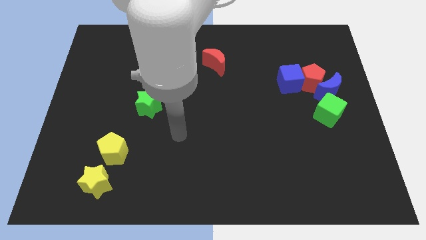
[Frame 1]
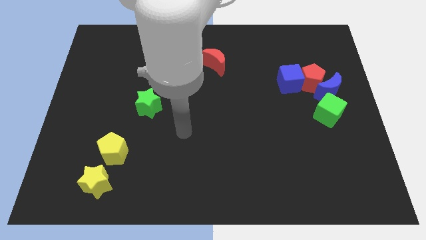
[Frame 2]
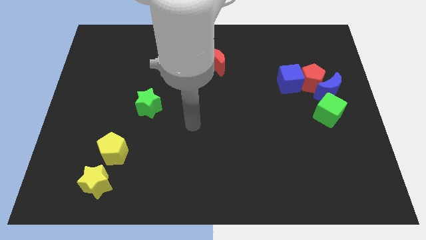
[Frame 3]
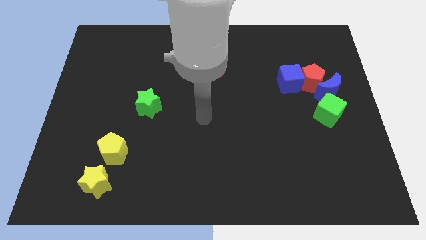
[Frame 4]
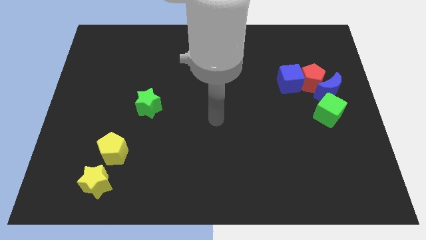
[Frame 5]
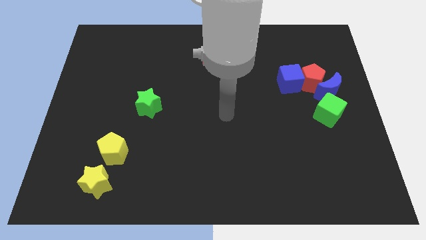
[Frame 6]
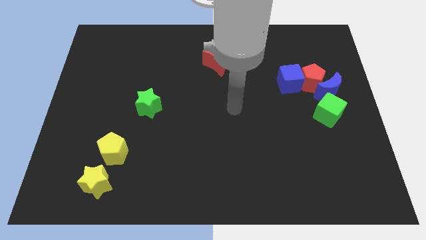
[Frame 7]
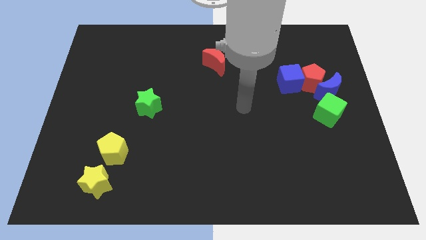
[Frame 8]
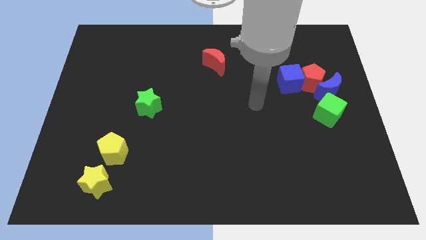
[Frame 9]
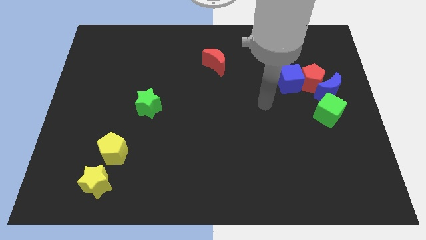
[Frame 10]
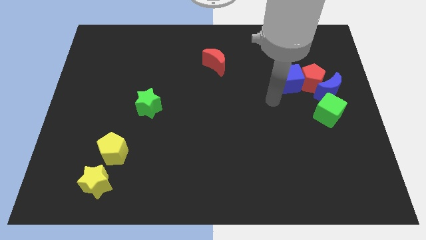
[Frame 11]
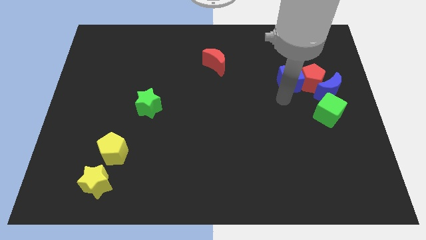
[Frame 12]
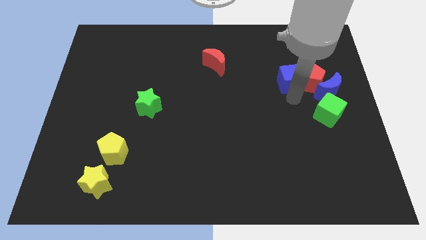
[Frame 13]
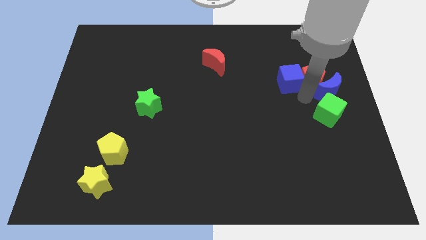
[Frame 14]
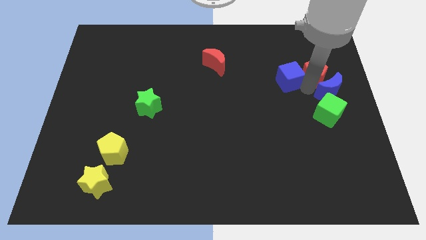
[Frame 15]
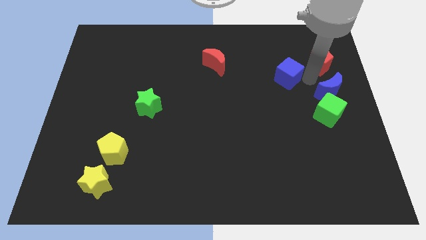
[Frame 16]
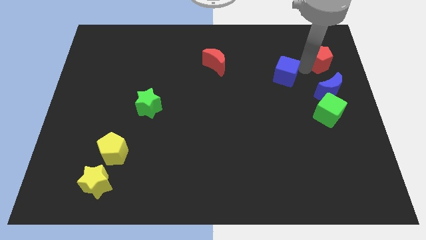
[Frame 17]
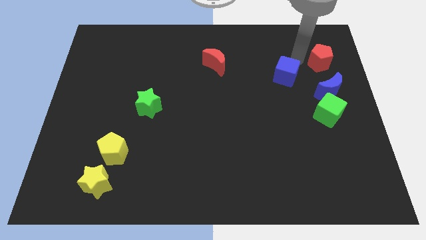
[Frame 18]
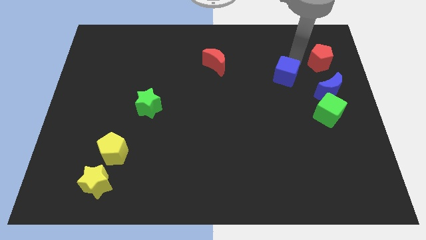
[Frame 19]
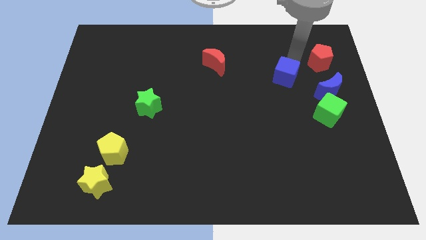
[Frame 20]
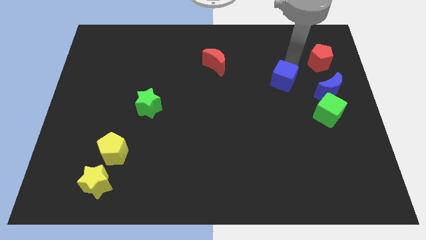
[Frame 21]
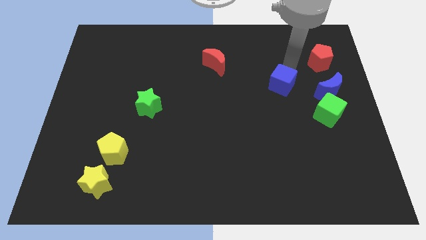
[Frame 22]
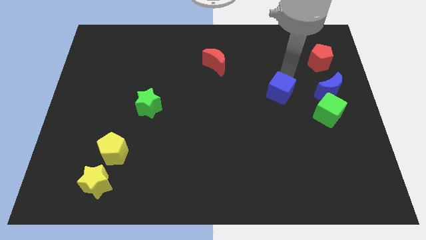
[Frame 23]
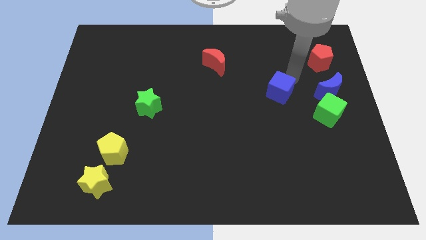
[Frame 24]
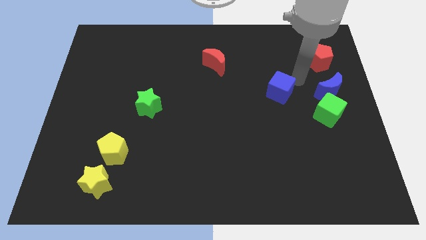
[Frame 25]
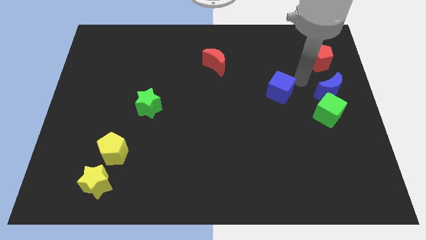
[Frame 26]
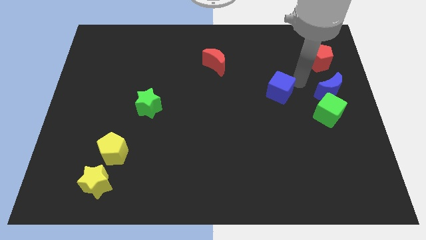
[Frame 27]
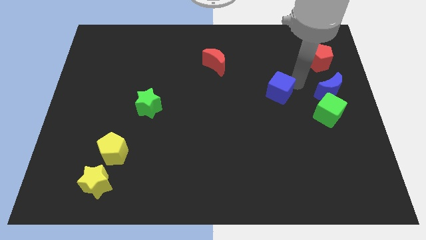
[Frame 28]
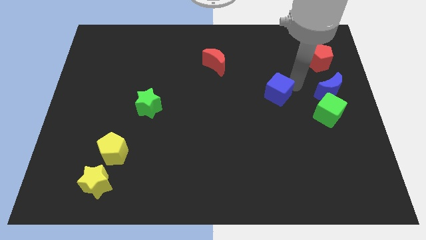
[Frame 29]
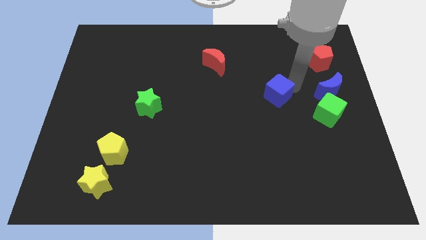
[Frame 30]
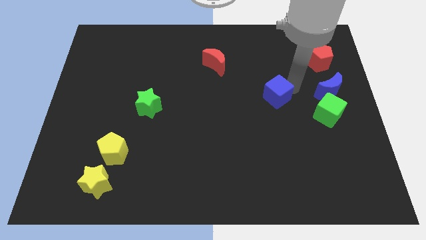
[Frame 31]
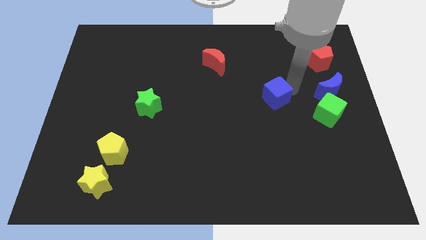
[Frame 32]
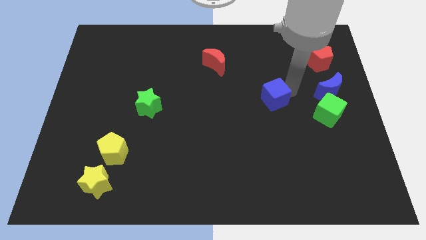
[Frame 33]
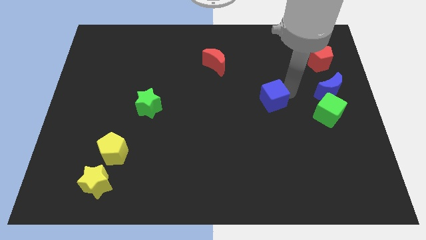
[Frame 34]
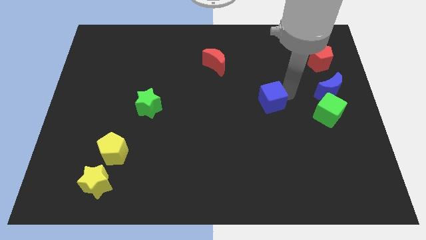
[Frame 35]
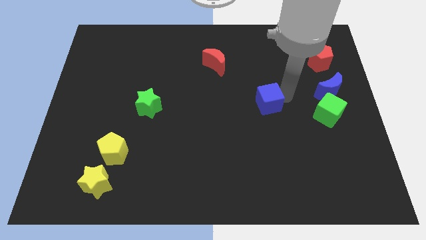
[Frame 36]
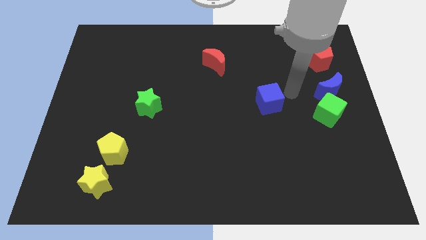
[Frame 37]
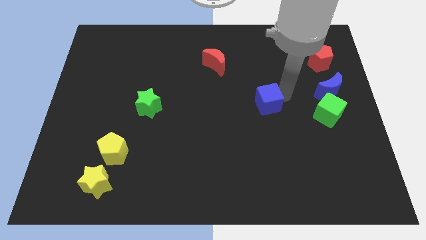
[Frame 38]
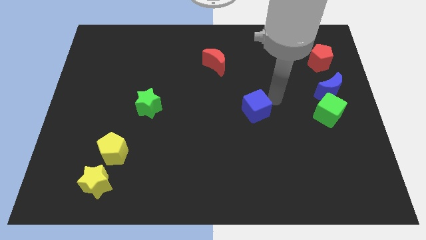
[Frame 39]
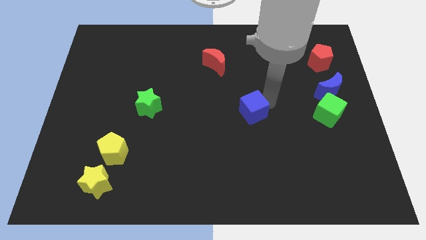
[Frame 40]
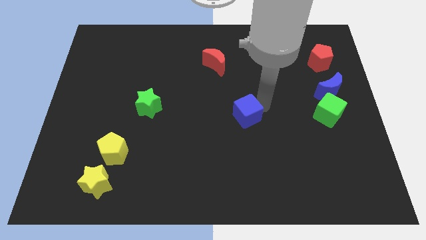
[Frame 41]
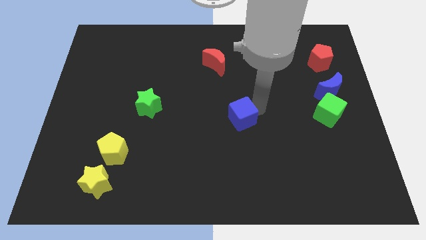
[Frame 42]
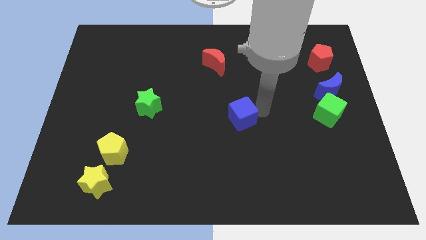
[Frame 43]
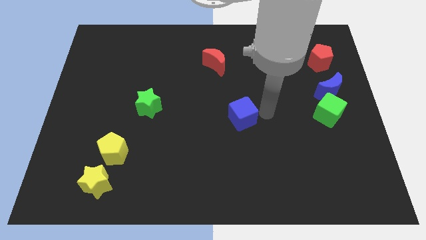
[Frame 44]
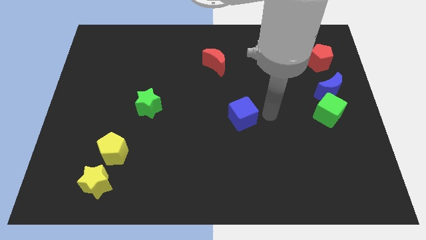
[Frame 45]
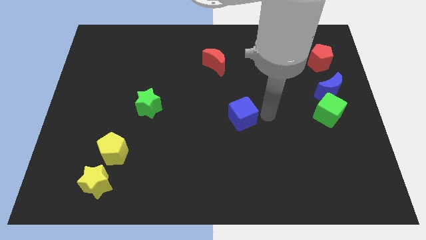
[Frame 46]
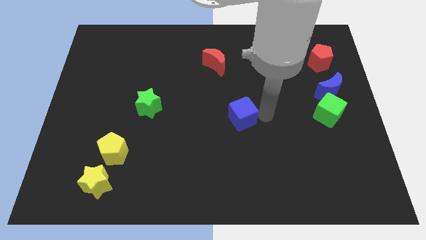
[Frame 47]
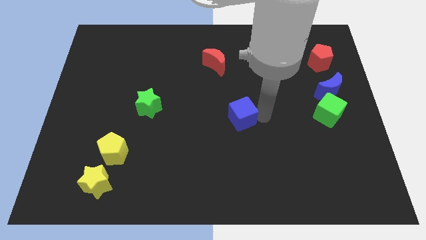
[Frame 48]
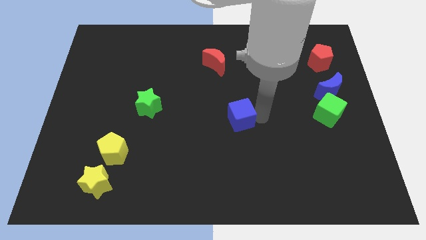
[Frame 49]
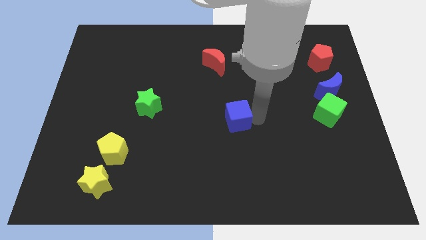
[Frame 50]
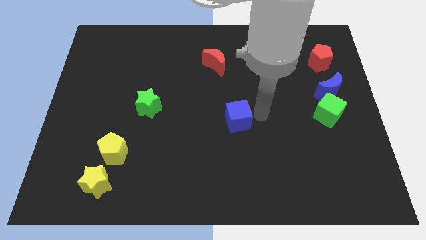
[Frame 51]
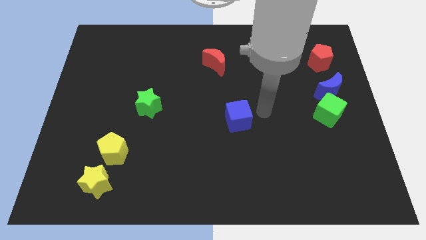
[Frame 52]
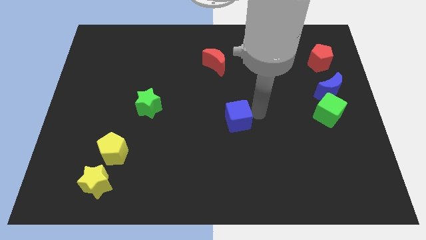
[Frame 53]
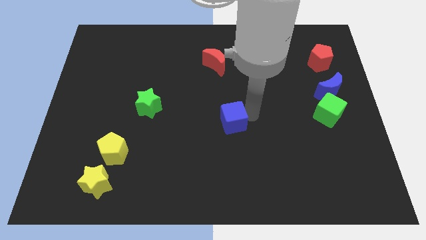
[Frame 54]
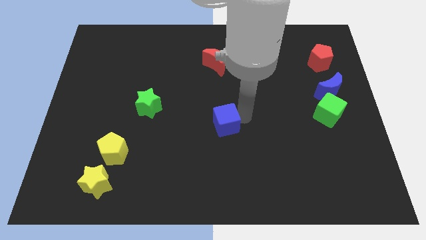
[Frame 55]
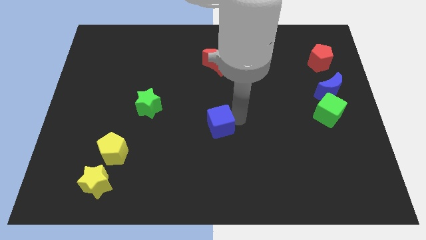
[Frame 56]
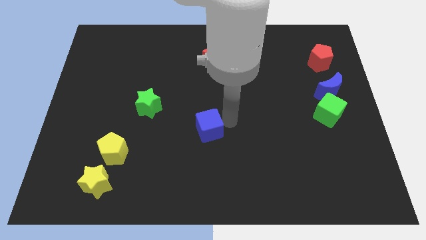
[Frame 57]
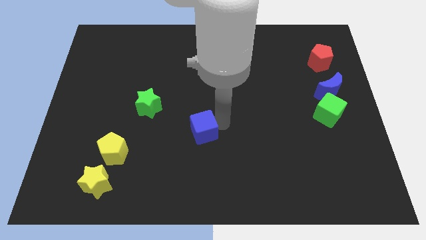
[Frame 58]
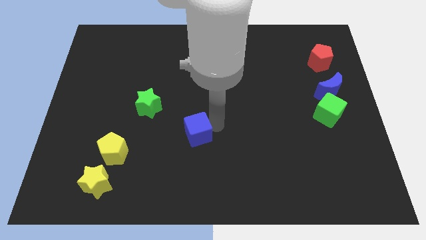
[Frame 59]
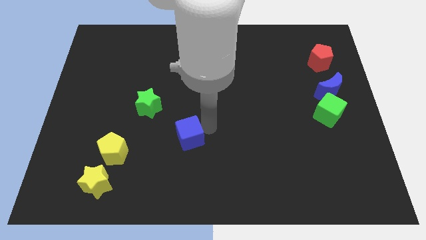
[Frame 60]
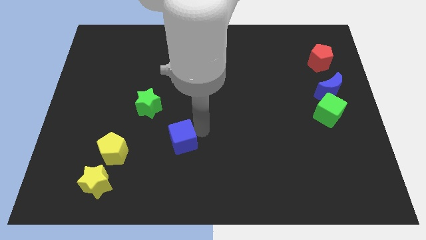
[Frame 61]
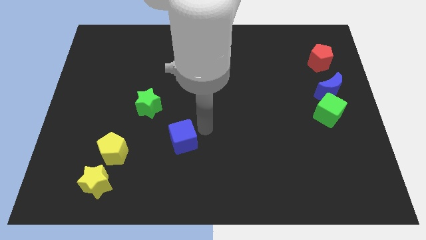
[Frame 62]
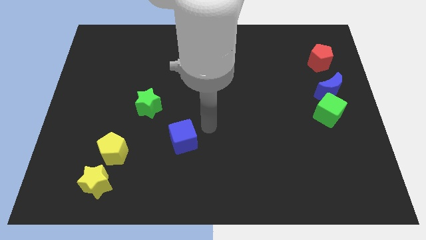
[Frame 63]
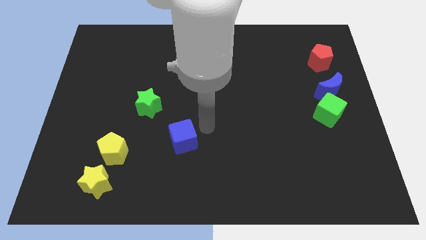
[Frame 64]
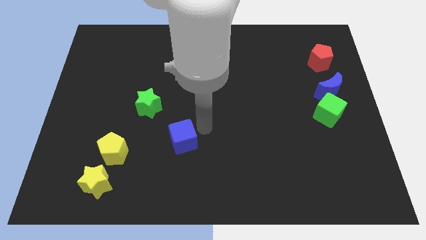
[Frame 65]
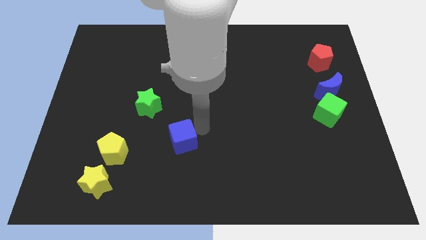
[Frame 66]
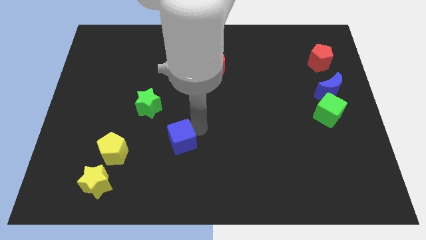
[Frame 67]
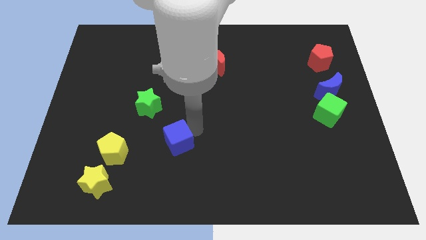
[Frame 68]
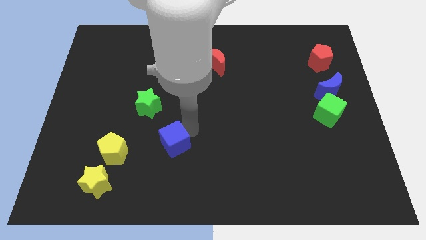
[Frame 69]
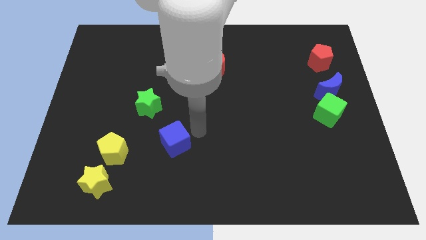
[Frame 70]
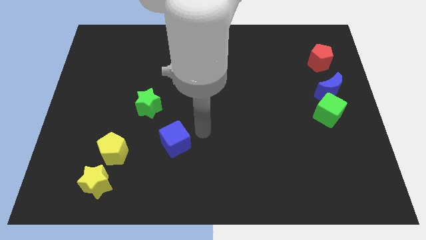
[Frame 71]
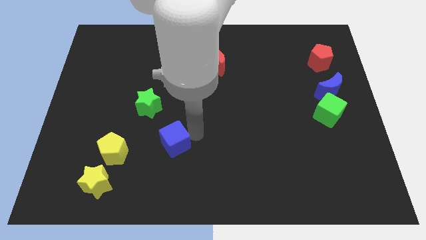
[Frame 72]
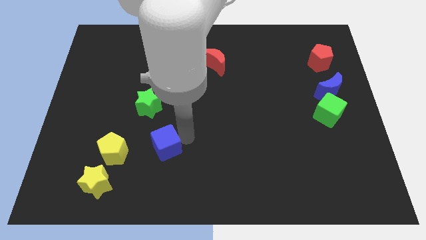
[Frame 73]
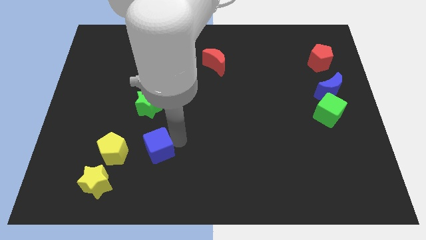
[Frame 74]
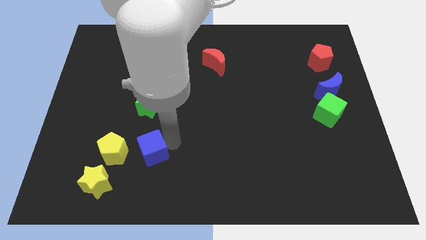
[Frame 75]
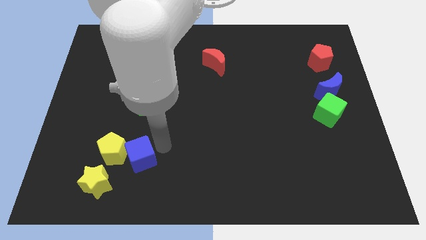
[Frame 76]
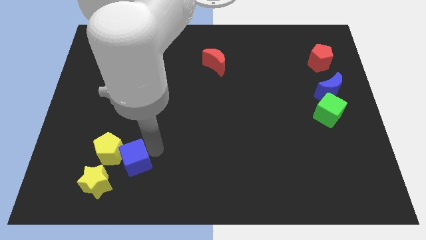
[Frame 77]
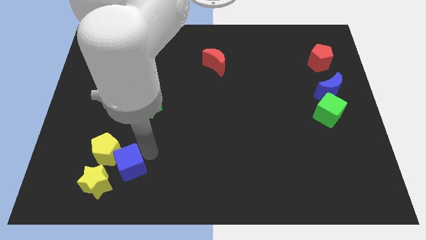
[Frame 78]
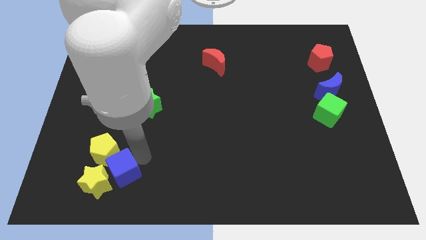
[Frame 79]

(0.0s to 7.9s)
move the blue cube close to the yellow star
